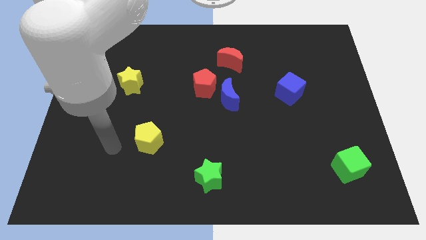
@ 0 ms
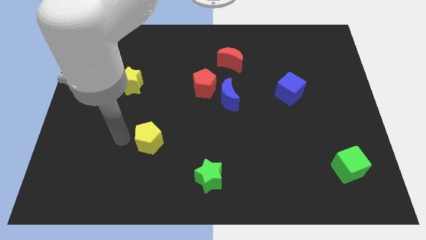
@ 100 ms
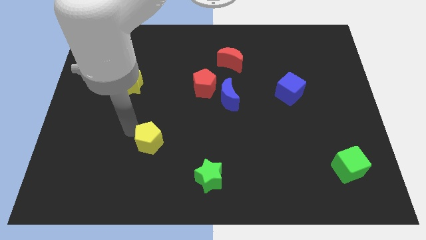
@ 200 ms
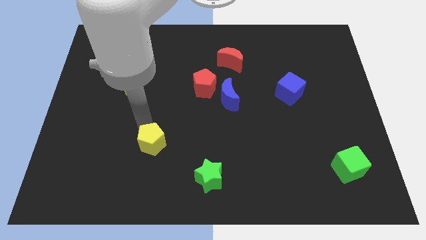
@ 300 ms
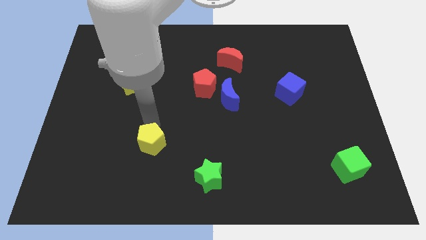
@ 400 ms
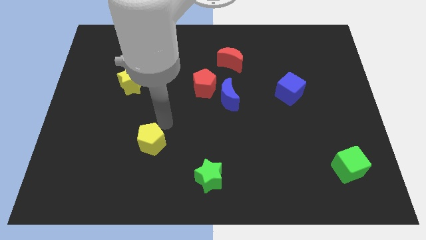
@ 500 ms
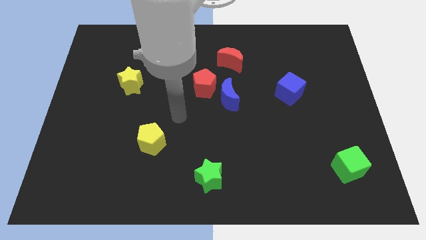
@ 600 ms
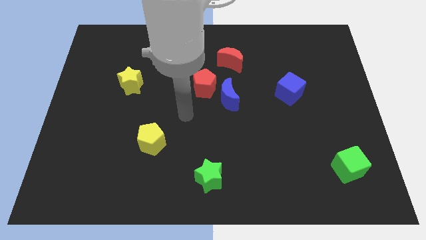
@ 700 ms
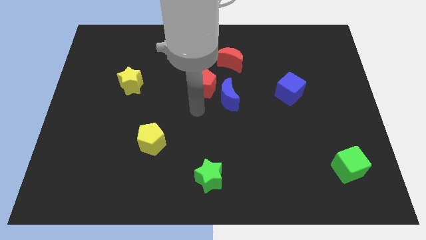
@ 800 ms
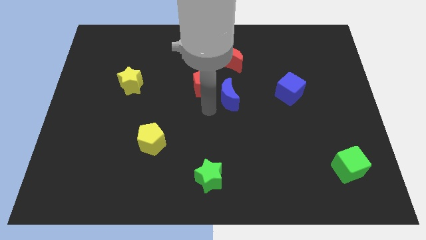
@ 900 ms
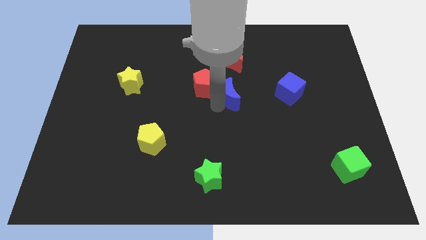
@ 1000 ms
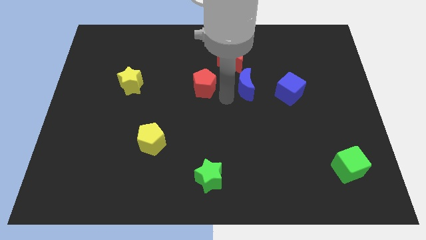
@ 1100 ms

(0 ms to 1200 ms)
pull the red pentagon apart from the blue moon

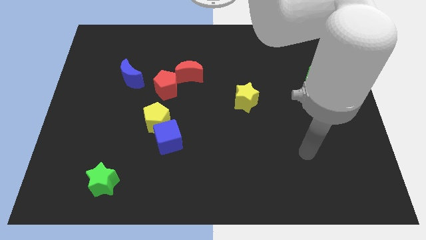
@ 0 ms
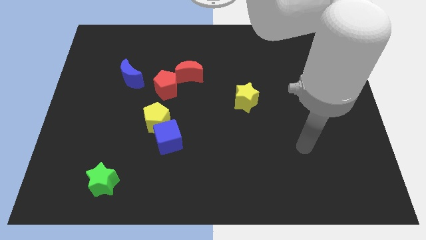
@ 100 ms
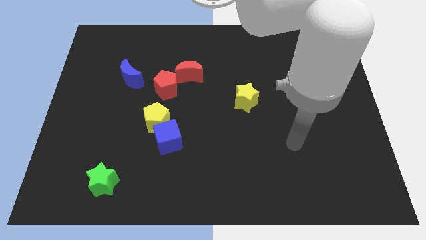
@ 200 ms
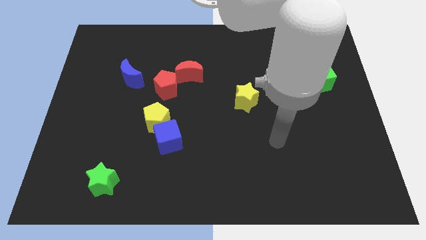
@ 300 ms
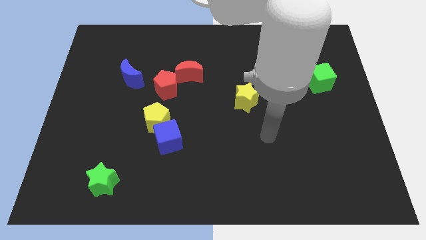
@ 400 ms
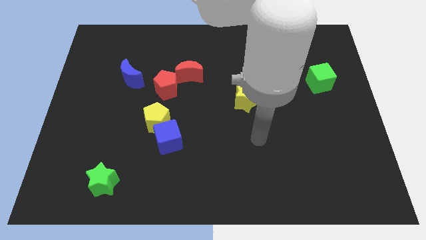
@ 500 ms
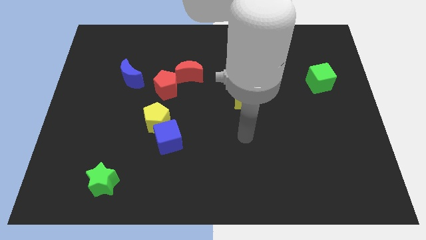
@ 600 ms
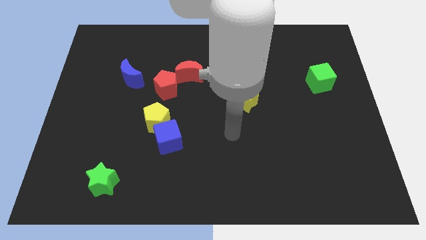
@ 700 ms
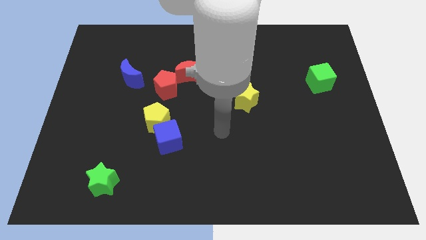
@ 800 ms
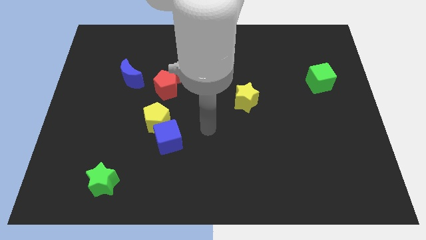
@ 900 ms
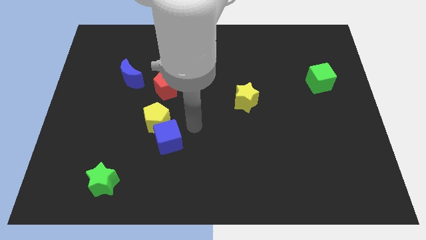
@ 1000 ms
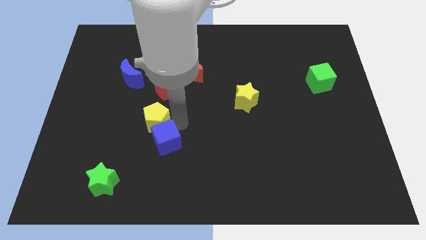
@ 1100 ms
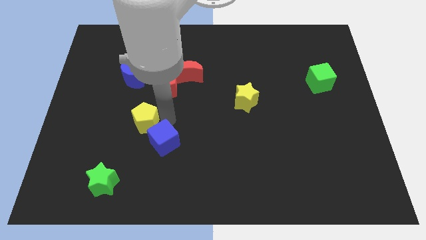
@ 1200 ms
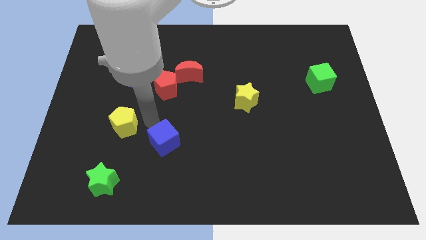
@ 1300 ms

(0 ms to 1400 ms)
separate the blue cube from the yellow pentagon

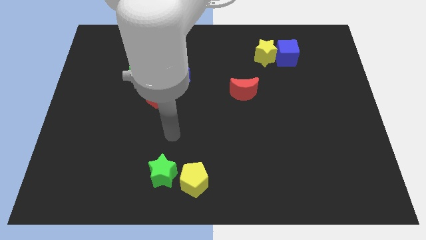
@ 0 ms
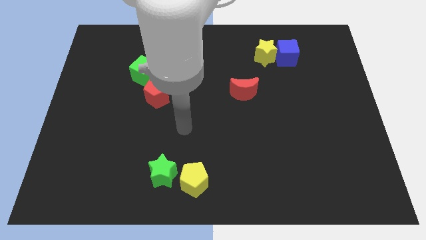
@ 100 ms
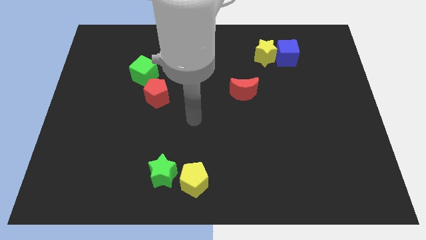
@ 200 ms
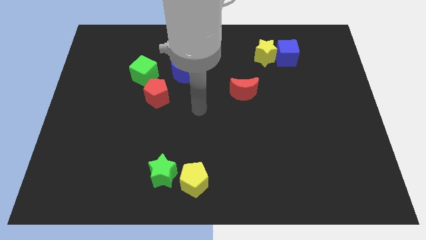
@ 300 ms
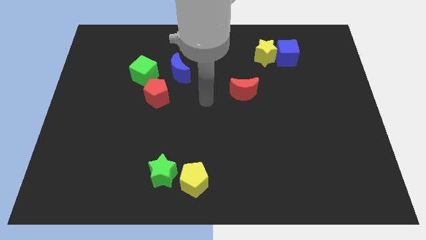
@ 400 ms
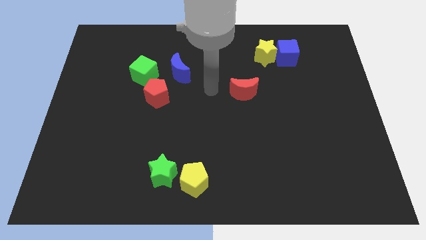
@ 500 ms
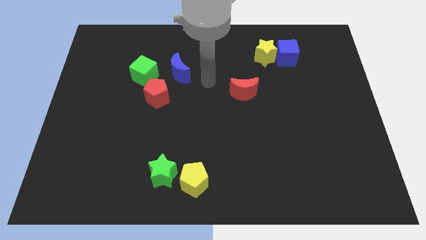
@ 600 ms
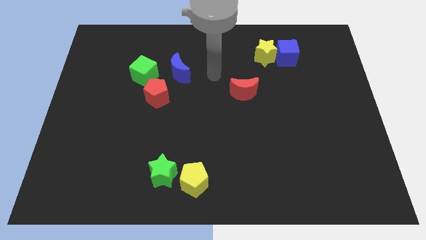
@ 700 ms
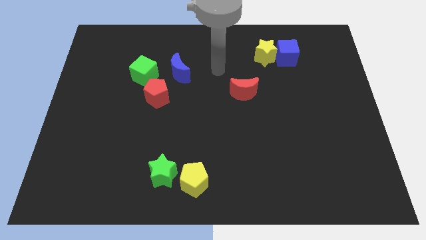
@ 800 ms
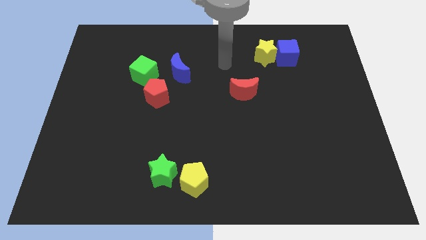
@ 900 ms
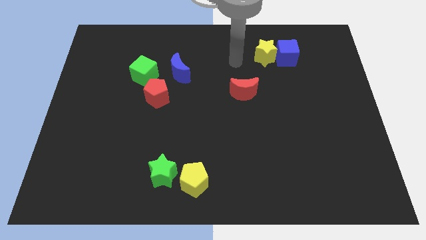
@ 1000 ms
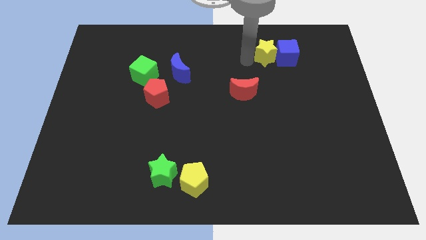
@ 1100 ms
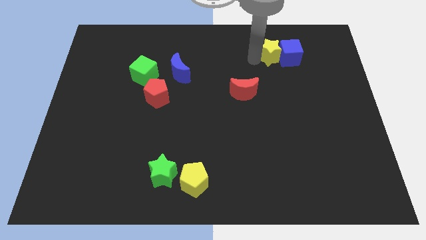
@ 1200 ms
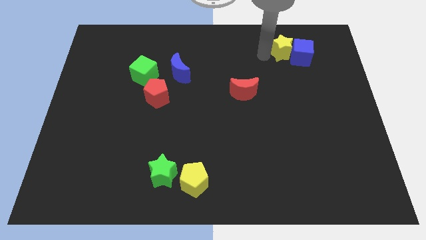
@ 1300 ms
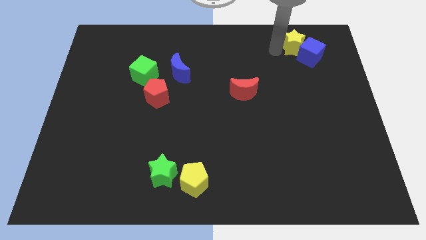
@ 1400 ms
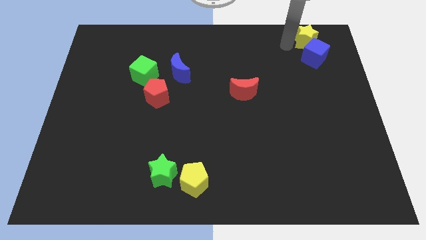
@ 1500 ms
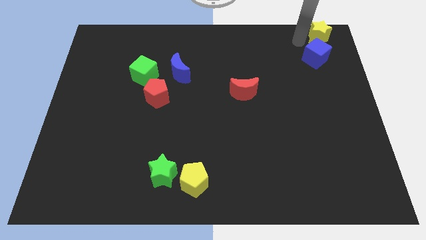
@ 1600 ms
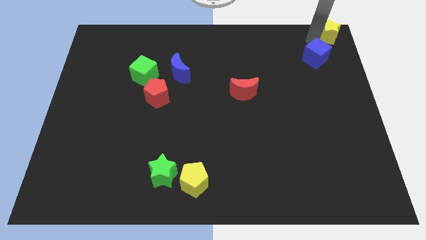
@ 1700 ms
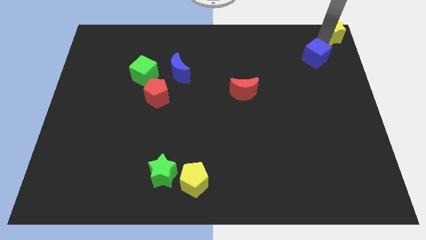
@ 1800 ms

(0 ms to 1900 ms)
separate the blue cube from the yellow star

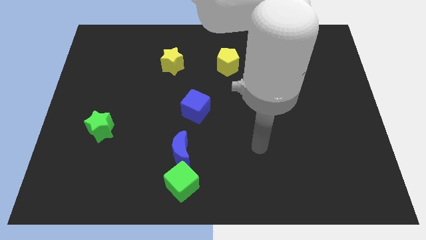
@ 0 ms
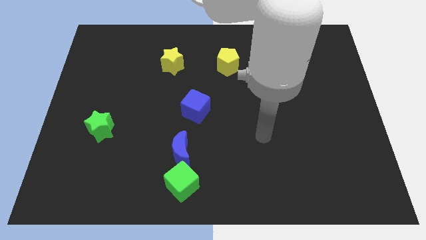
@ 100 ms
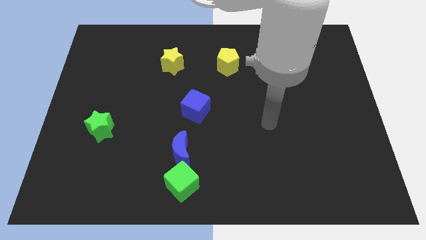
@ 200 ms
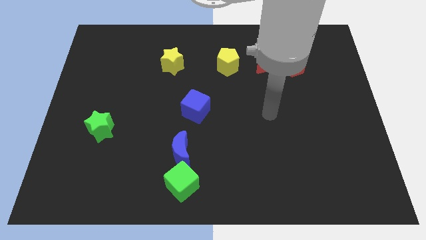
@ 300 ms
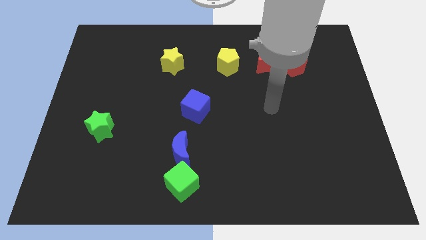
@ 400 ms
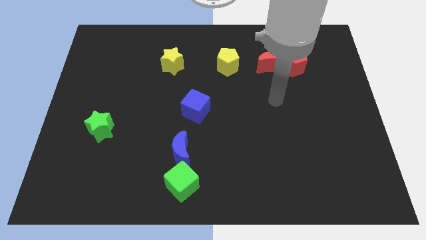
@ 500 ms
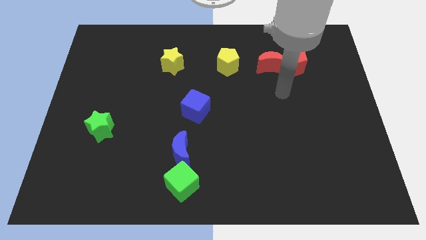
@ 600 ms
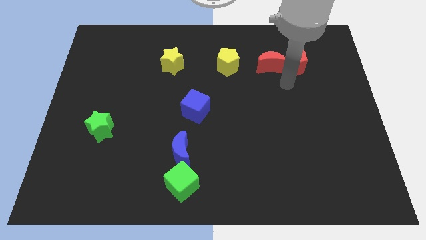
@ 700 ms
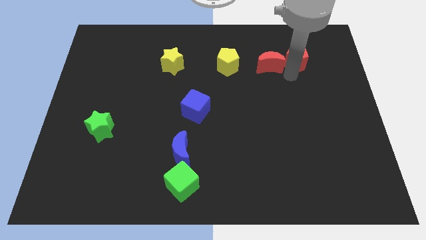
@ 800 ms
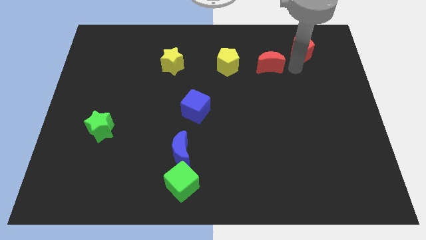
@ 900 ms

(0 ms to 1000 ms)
pull the red moon apart from the red pentagon

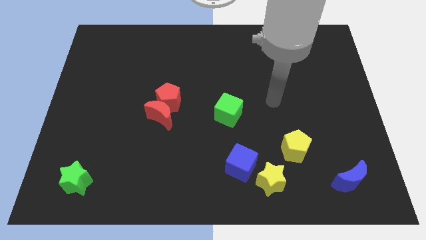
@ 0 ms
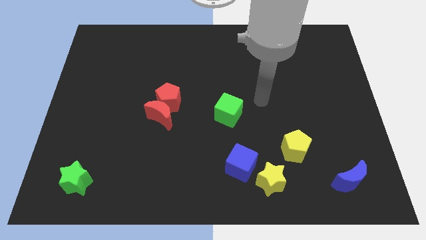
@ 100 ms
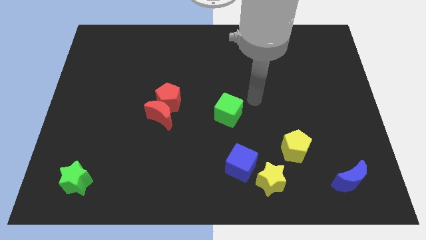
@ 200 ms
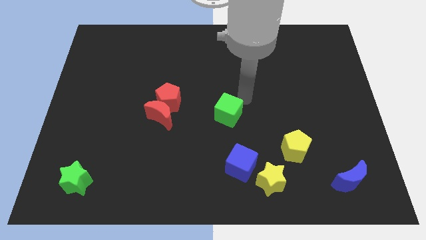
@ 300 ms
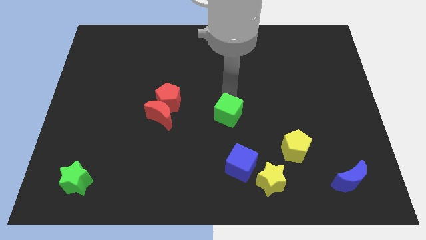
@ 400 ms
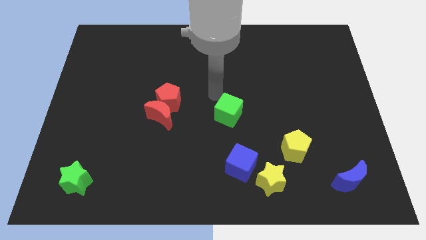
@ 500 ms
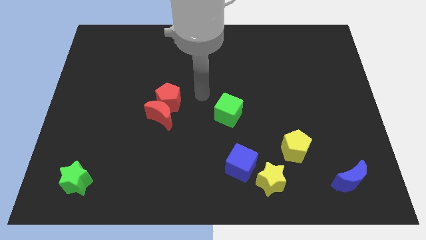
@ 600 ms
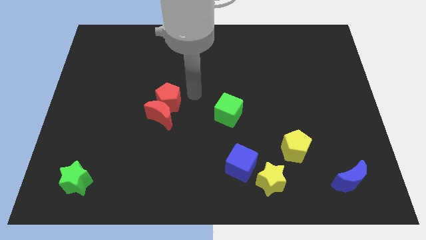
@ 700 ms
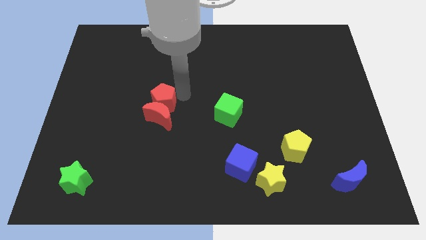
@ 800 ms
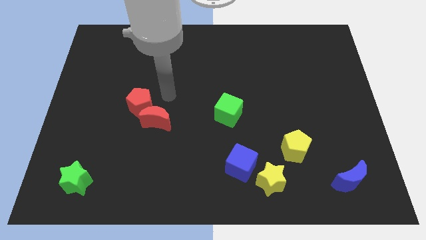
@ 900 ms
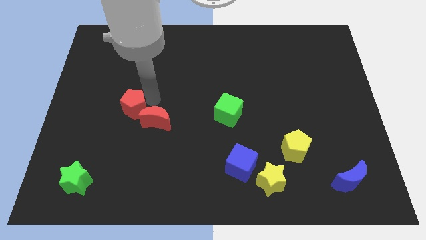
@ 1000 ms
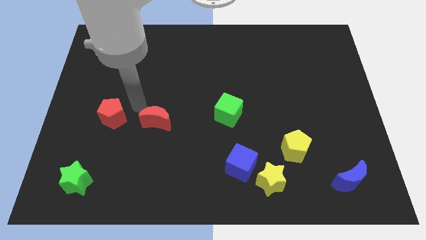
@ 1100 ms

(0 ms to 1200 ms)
move the red moon away from the red pentagon

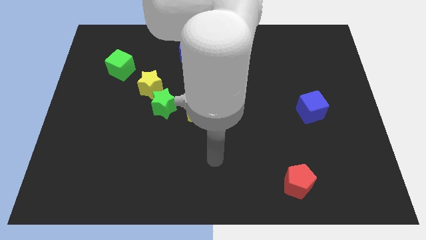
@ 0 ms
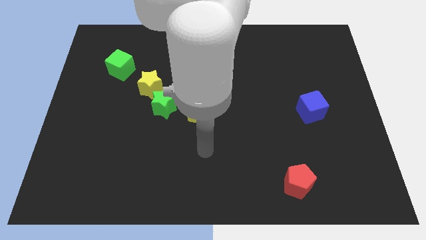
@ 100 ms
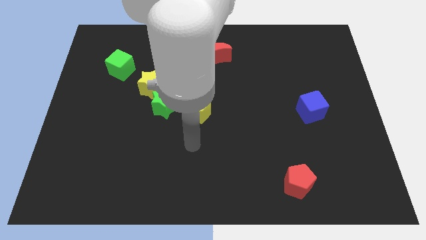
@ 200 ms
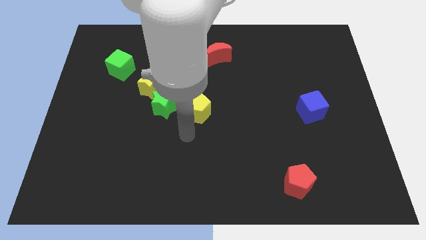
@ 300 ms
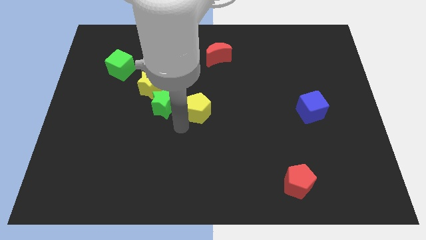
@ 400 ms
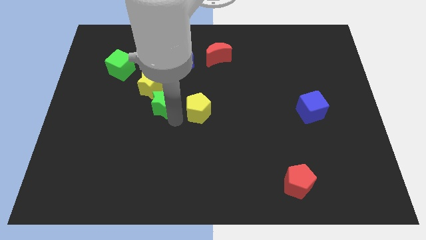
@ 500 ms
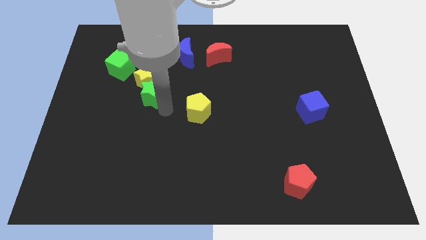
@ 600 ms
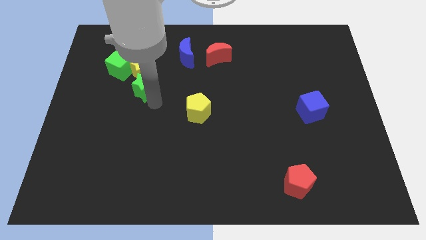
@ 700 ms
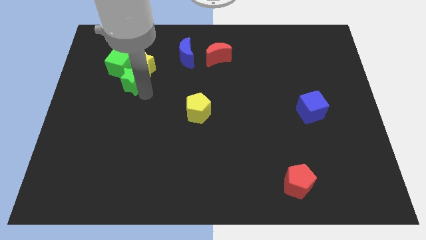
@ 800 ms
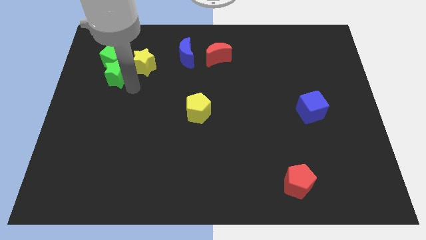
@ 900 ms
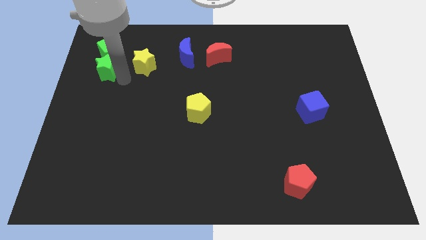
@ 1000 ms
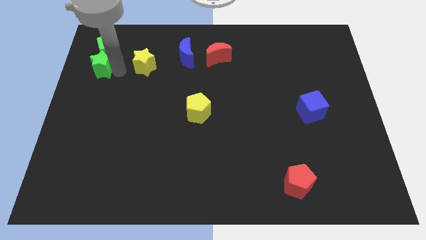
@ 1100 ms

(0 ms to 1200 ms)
separate the yellow star from the green star

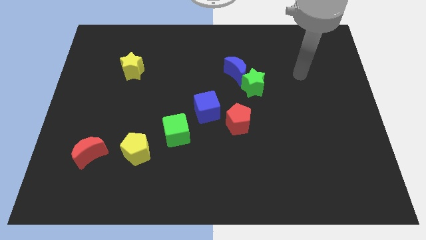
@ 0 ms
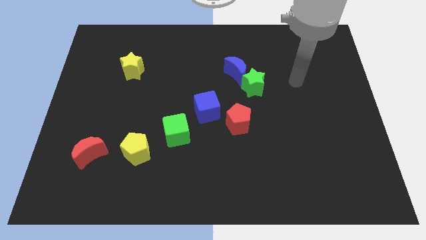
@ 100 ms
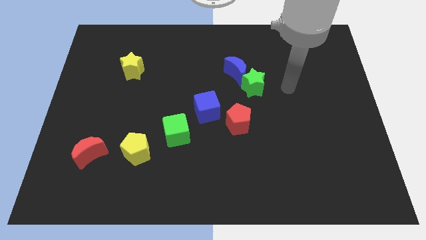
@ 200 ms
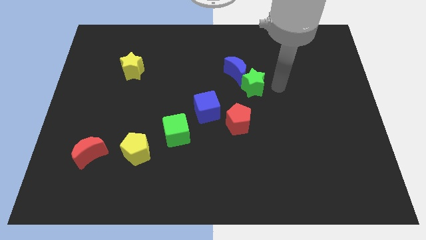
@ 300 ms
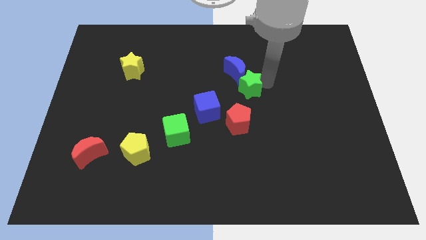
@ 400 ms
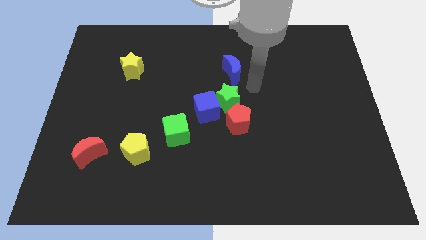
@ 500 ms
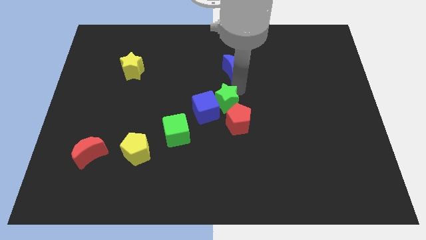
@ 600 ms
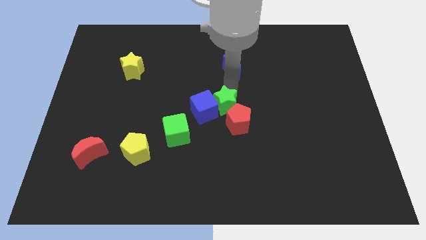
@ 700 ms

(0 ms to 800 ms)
move the blue moon away from the green star

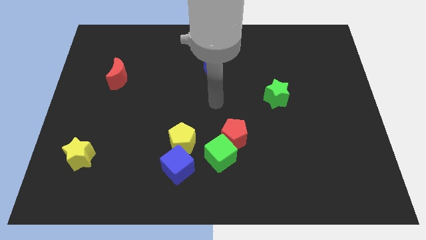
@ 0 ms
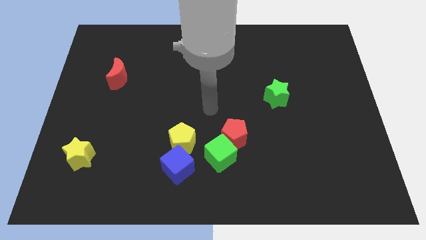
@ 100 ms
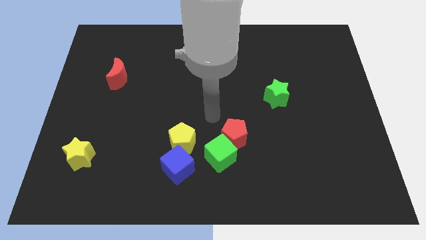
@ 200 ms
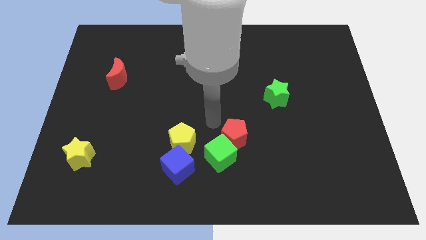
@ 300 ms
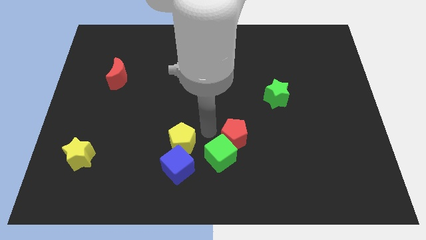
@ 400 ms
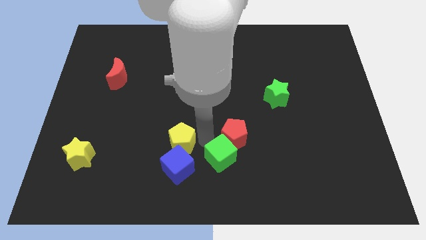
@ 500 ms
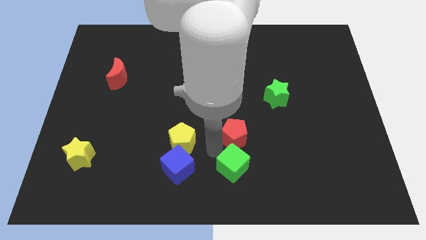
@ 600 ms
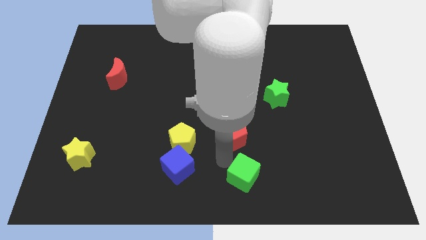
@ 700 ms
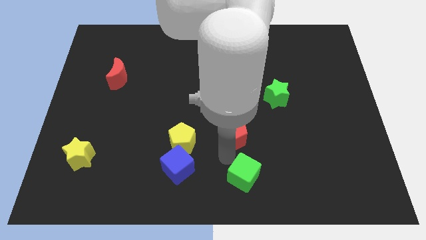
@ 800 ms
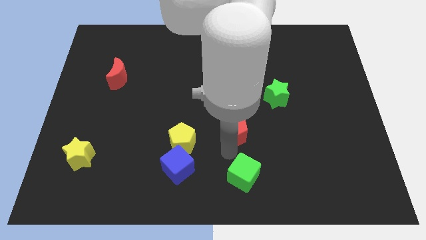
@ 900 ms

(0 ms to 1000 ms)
separate the red pentagon from the green cube
